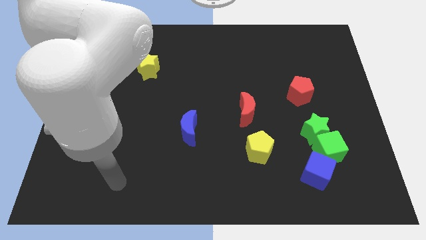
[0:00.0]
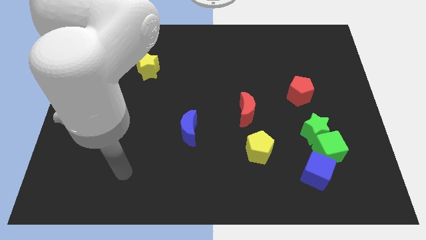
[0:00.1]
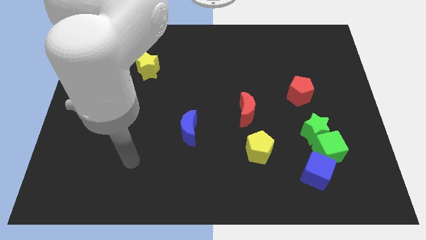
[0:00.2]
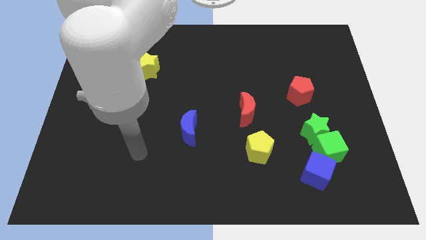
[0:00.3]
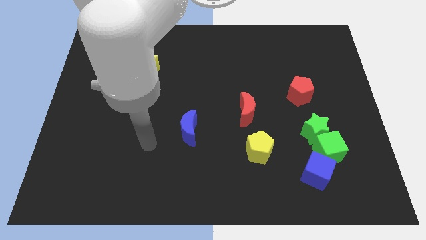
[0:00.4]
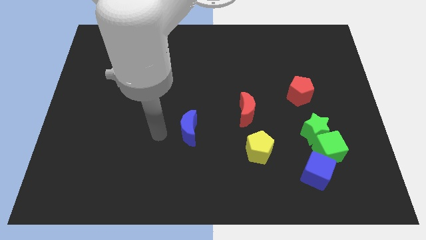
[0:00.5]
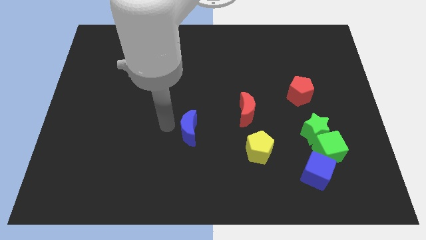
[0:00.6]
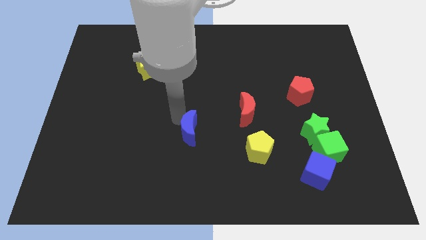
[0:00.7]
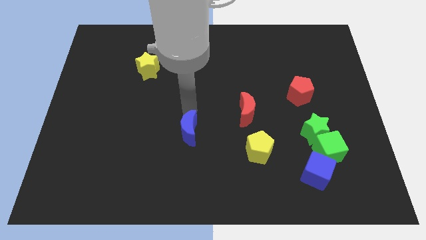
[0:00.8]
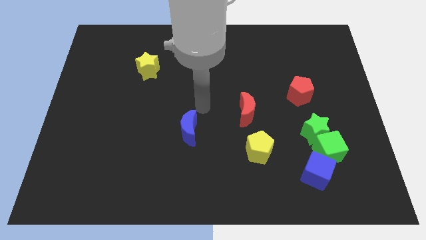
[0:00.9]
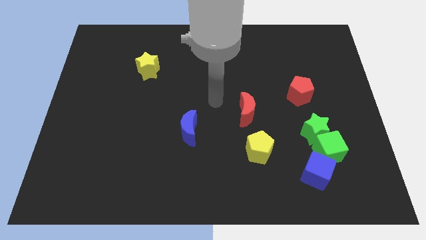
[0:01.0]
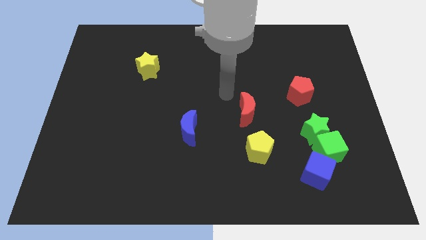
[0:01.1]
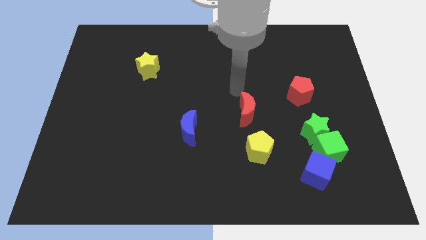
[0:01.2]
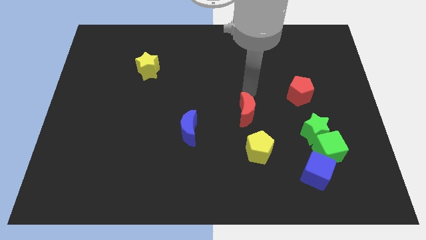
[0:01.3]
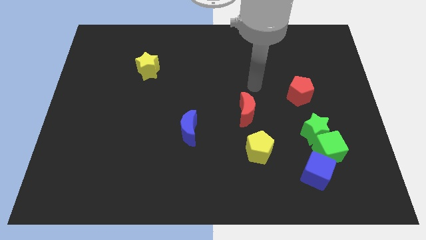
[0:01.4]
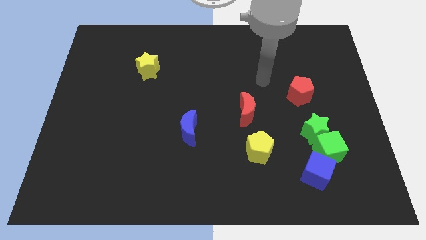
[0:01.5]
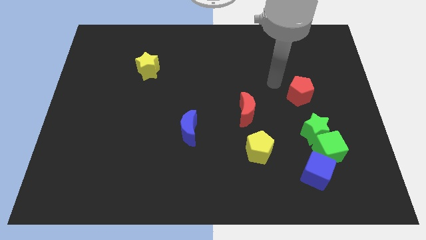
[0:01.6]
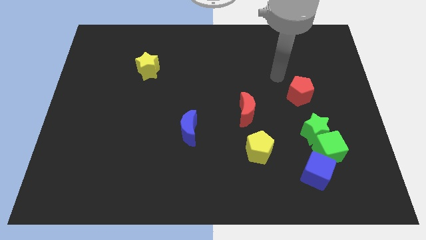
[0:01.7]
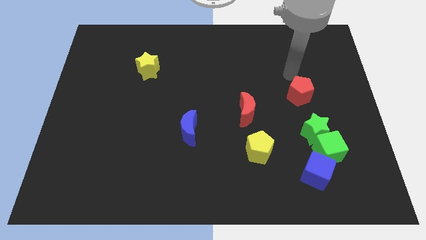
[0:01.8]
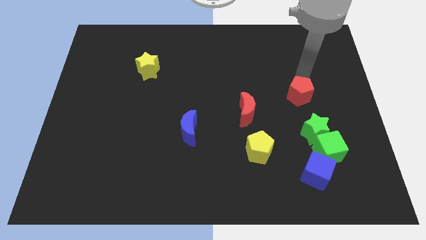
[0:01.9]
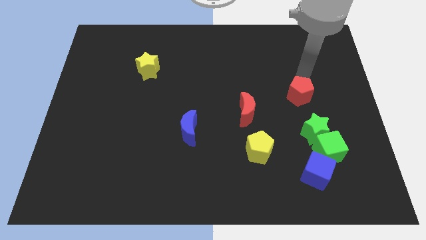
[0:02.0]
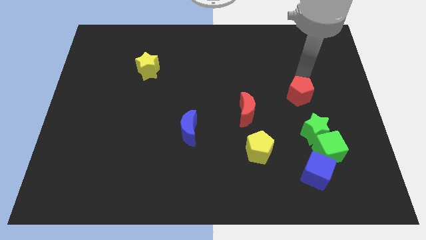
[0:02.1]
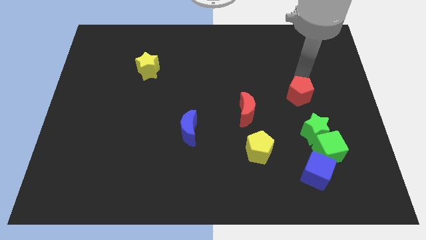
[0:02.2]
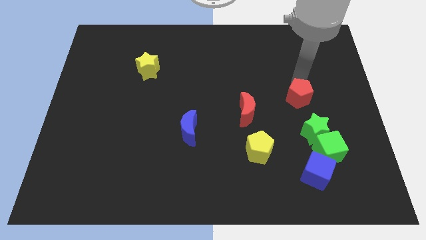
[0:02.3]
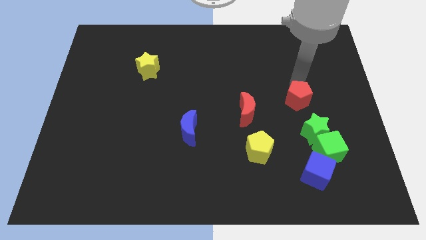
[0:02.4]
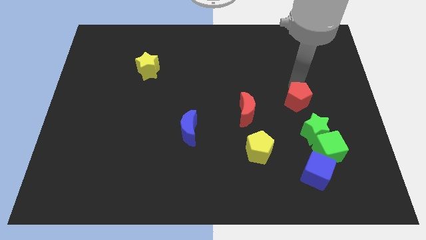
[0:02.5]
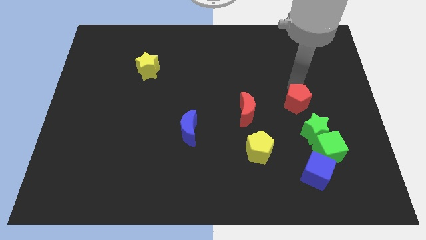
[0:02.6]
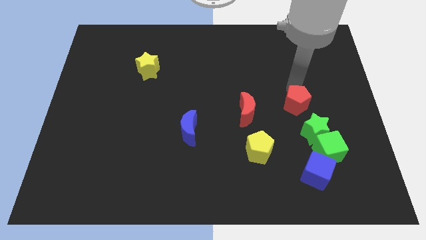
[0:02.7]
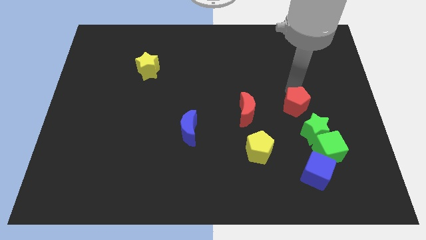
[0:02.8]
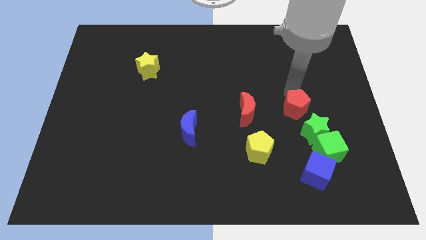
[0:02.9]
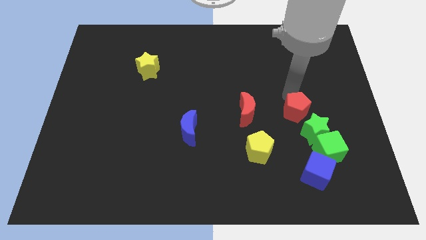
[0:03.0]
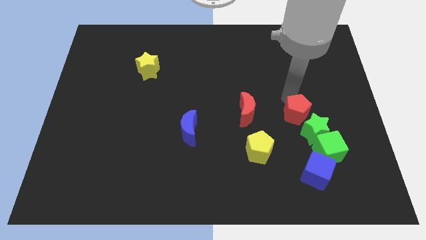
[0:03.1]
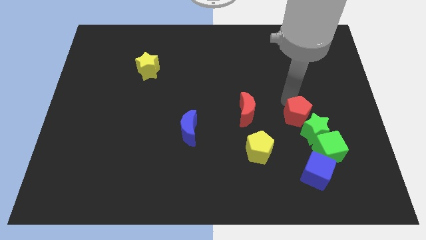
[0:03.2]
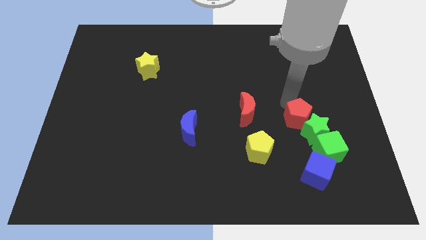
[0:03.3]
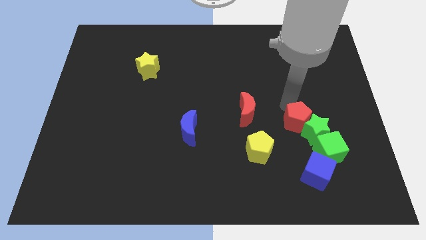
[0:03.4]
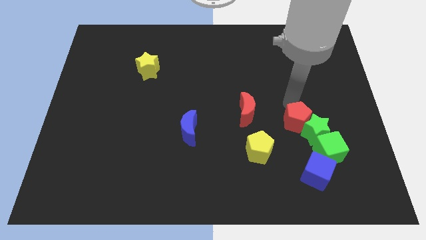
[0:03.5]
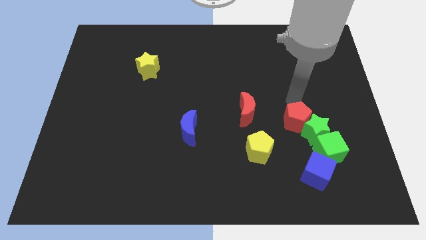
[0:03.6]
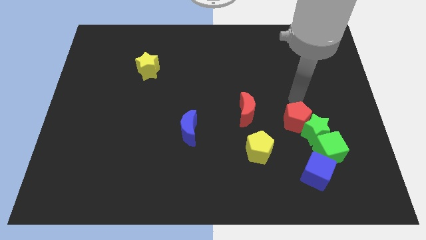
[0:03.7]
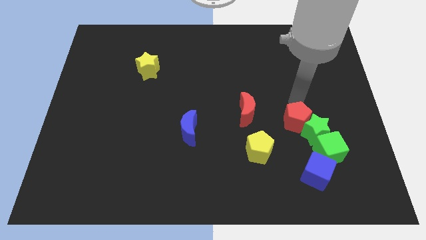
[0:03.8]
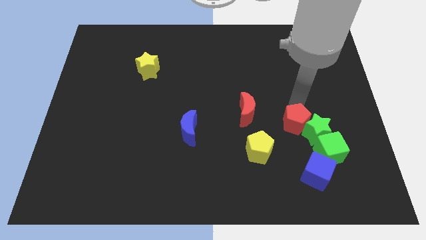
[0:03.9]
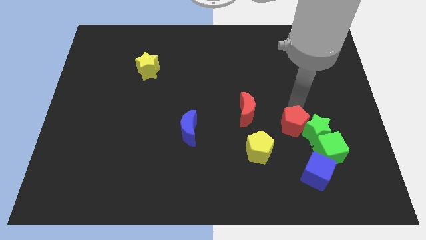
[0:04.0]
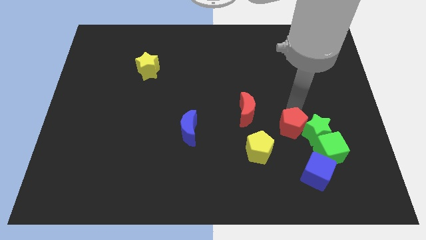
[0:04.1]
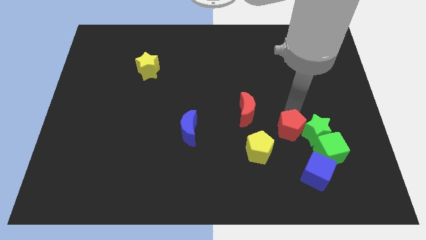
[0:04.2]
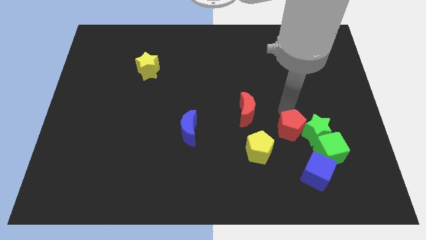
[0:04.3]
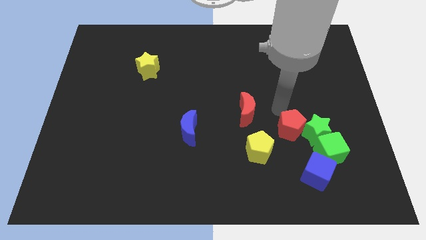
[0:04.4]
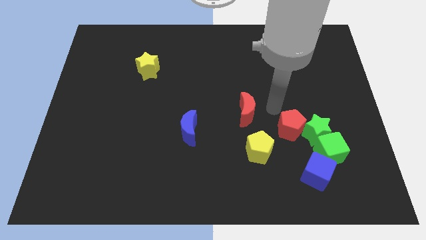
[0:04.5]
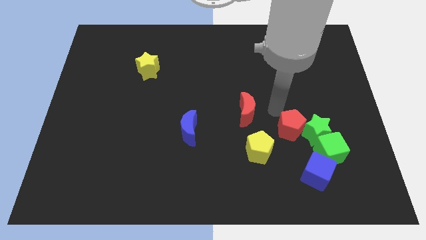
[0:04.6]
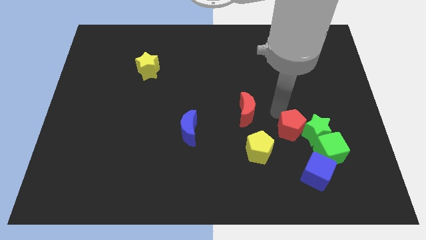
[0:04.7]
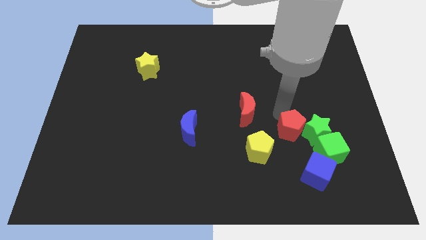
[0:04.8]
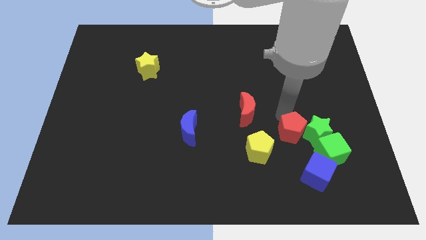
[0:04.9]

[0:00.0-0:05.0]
put the red pentagon to the right of the yellow pentagon

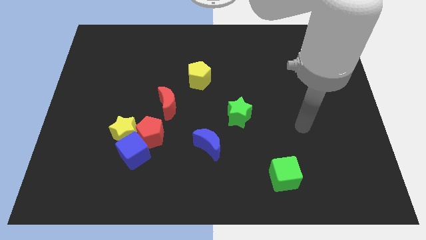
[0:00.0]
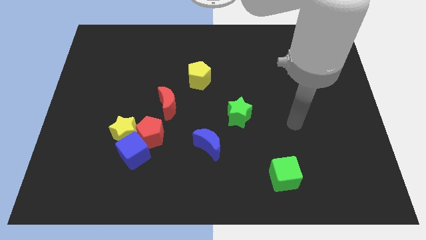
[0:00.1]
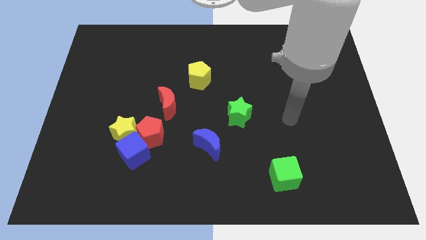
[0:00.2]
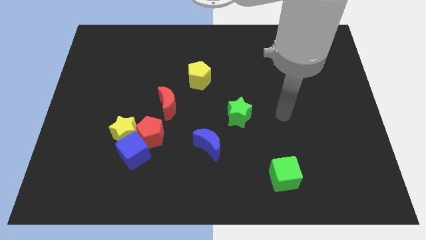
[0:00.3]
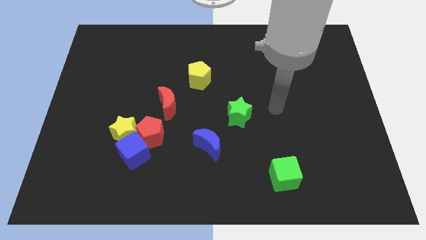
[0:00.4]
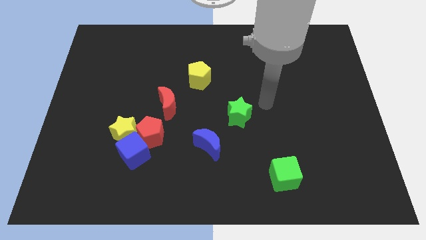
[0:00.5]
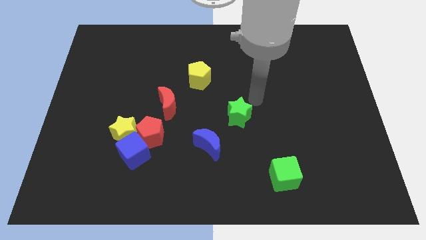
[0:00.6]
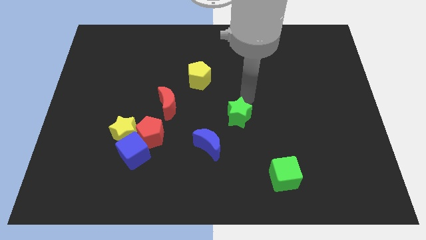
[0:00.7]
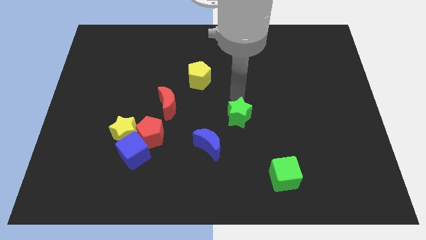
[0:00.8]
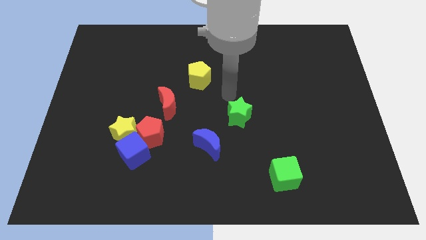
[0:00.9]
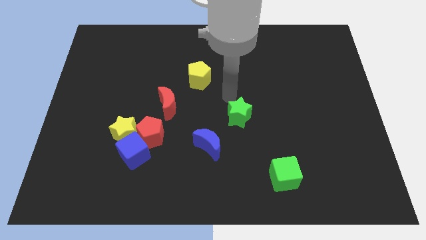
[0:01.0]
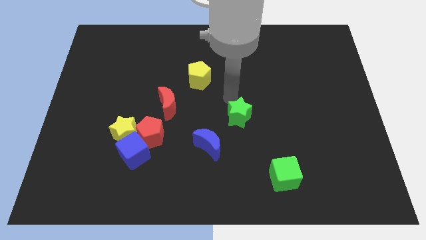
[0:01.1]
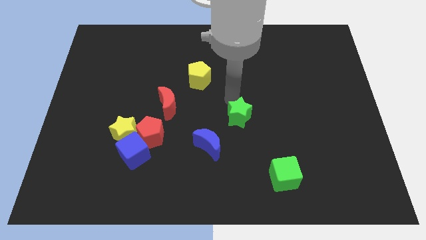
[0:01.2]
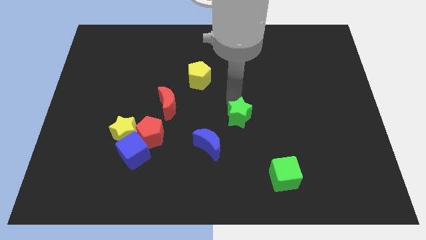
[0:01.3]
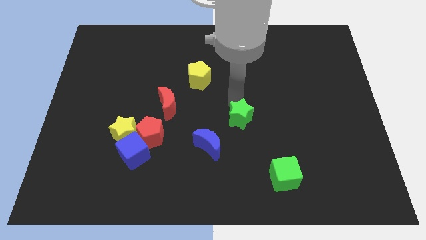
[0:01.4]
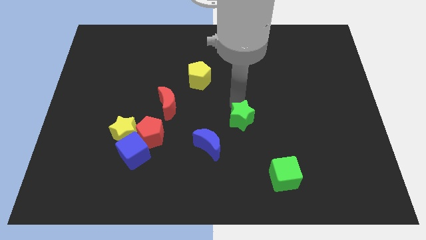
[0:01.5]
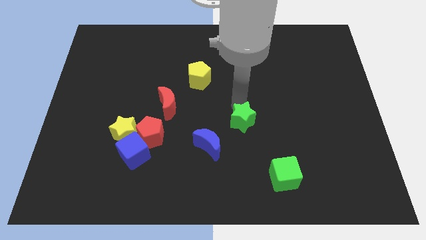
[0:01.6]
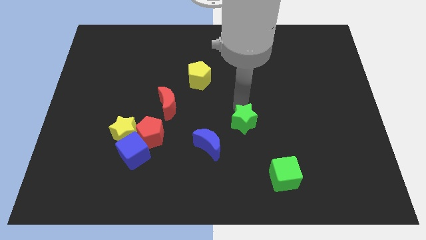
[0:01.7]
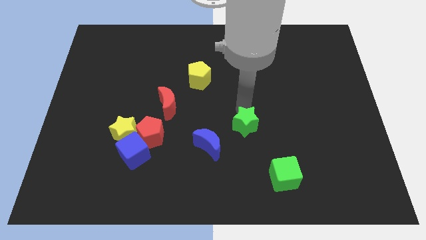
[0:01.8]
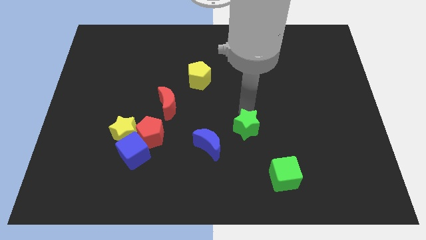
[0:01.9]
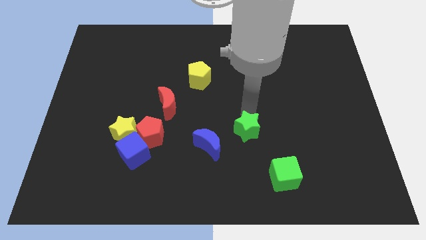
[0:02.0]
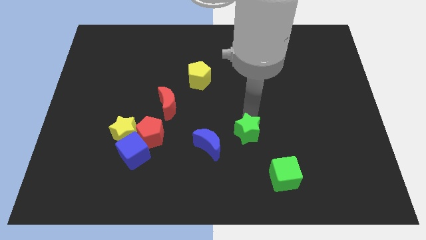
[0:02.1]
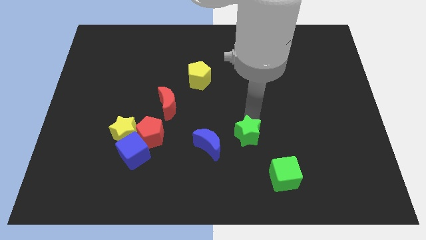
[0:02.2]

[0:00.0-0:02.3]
move the green star diagonally up and to the left of the green cube
